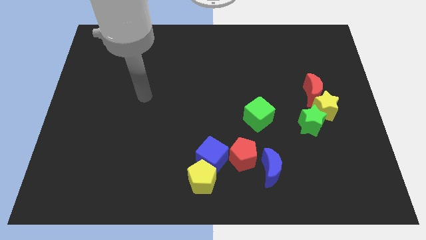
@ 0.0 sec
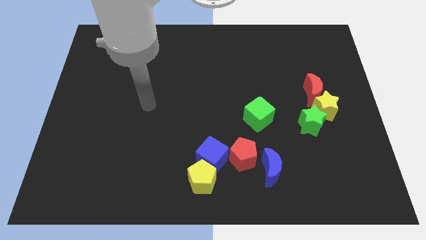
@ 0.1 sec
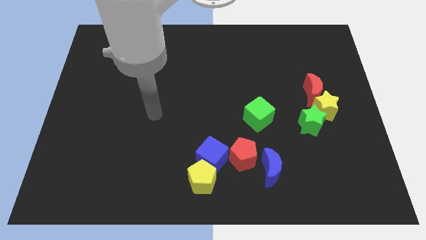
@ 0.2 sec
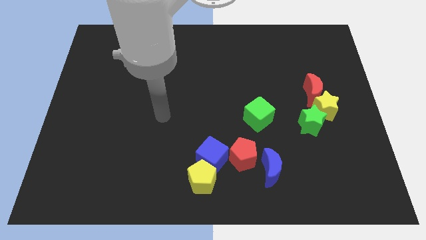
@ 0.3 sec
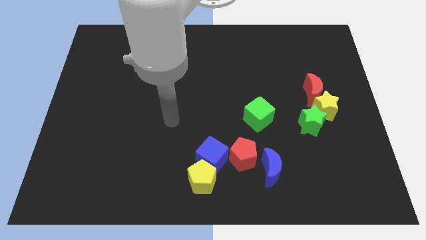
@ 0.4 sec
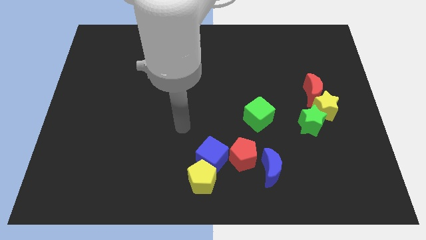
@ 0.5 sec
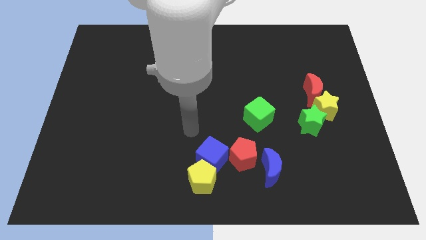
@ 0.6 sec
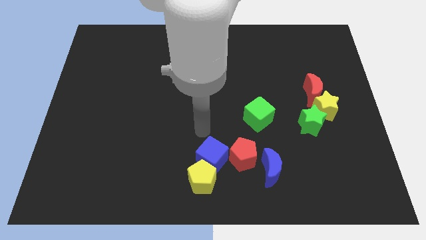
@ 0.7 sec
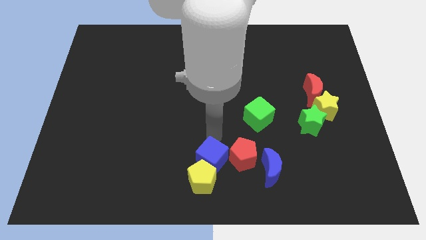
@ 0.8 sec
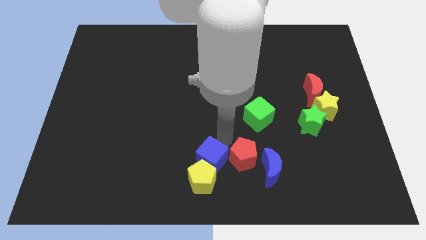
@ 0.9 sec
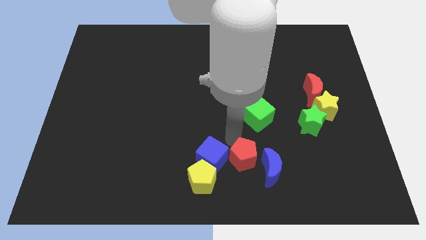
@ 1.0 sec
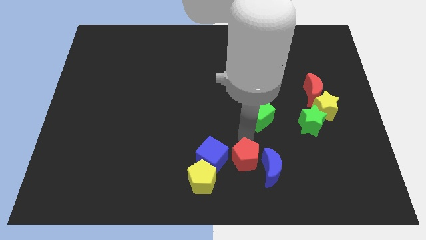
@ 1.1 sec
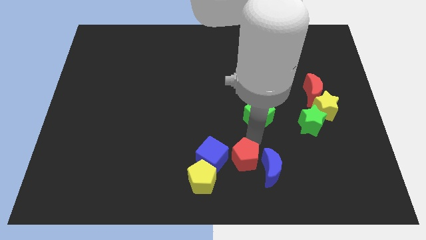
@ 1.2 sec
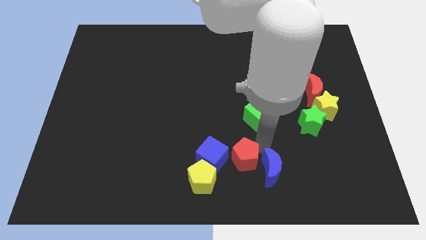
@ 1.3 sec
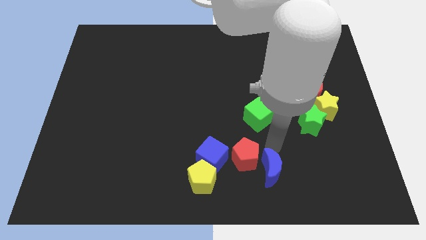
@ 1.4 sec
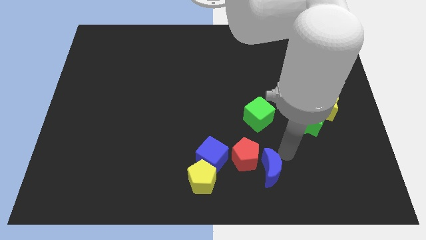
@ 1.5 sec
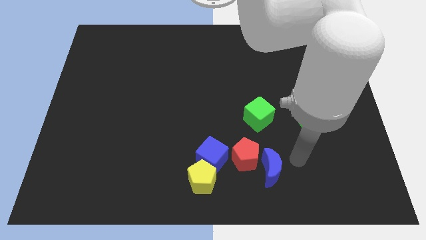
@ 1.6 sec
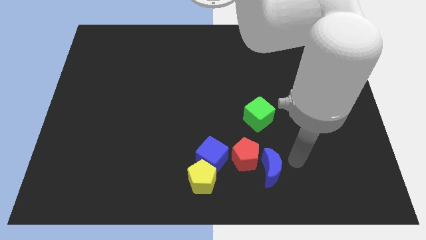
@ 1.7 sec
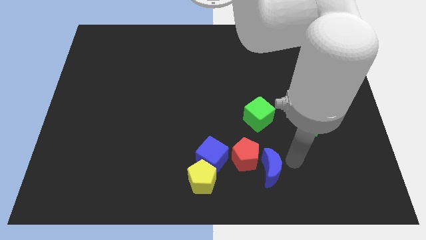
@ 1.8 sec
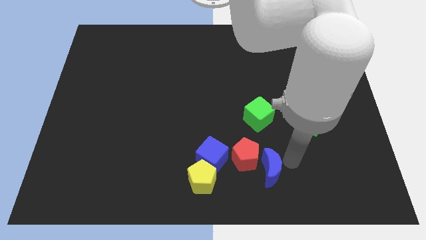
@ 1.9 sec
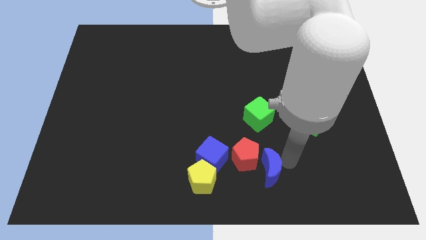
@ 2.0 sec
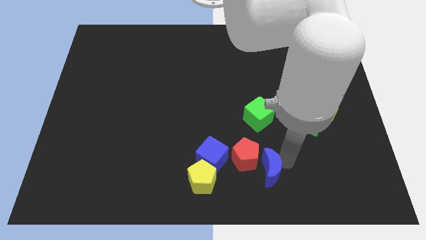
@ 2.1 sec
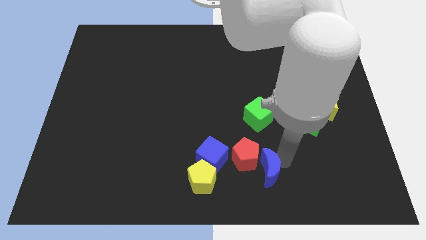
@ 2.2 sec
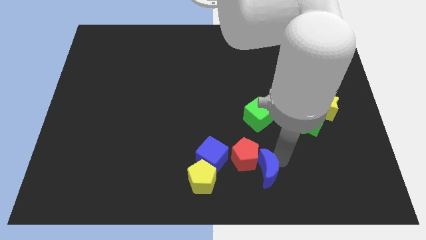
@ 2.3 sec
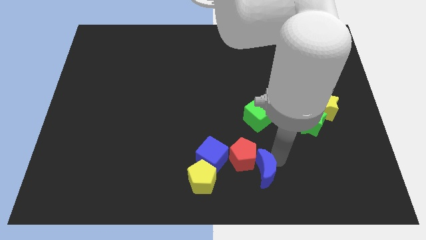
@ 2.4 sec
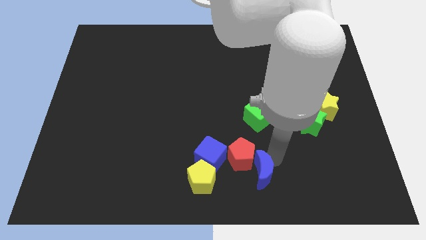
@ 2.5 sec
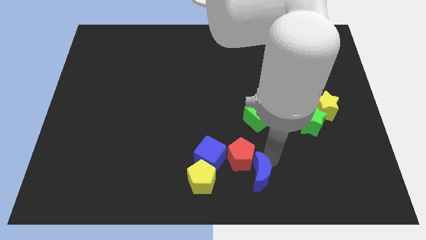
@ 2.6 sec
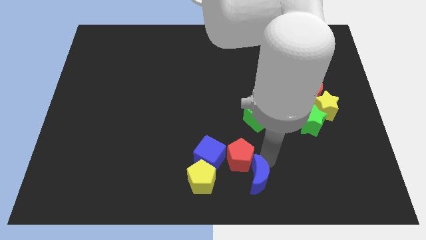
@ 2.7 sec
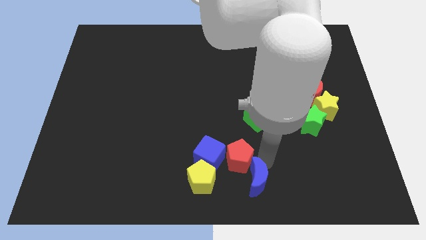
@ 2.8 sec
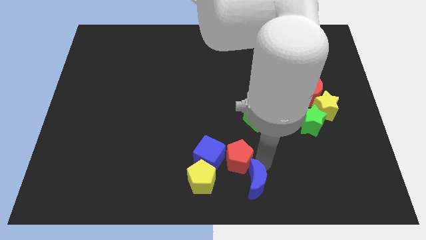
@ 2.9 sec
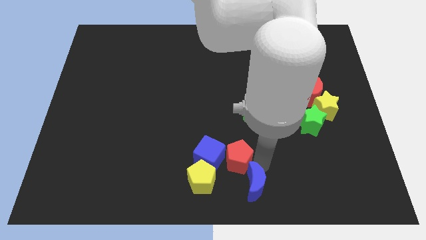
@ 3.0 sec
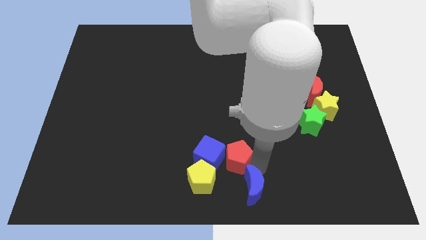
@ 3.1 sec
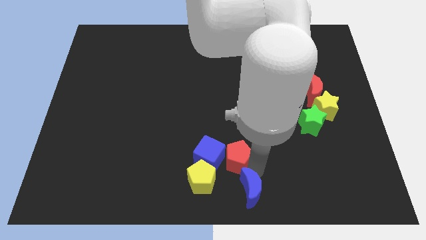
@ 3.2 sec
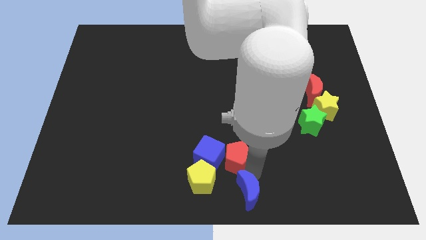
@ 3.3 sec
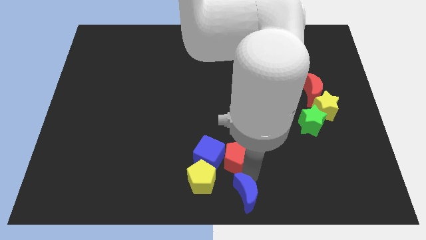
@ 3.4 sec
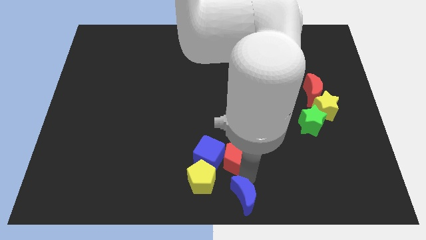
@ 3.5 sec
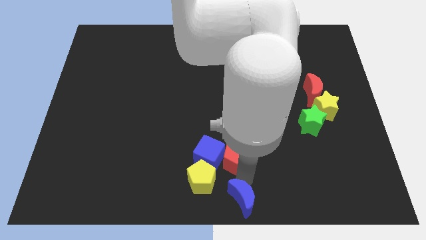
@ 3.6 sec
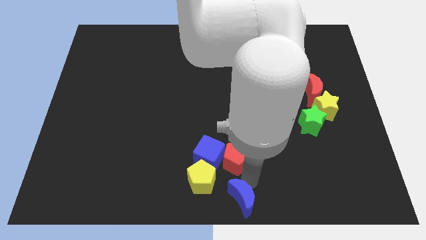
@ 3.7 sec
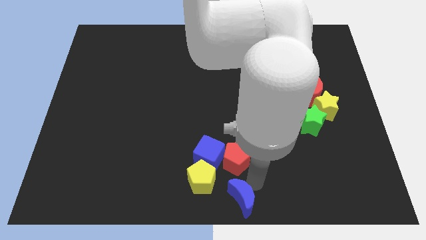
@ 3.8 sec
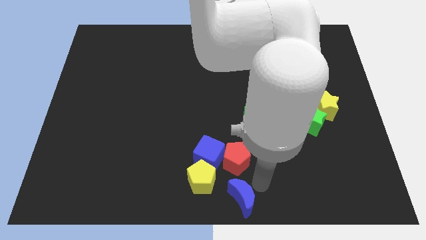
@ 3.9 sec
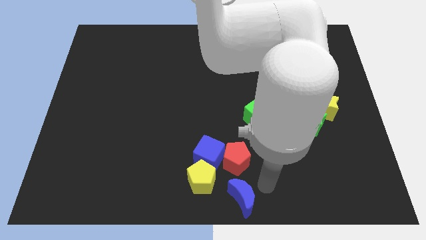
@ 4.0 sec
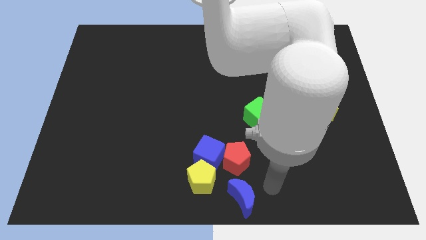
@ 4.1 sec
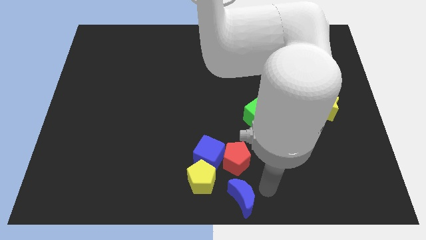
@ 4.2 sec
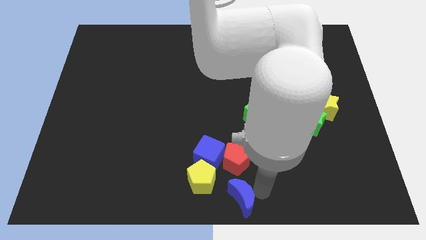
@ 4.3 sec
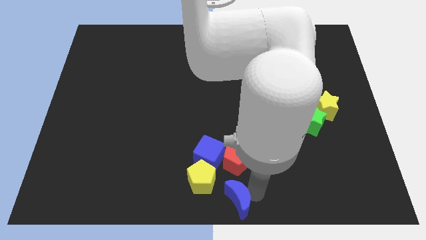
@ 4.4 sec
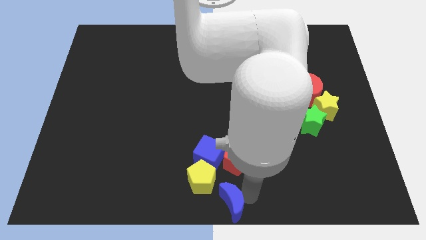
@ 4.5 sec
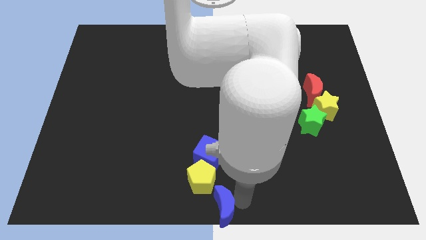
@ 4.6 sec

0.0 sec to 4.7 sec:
push the blue moon slightly to the left

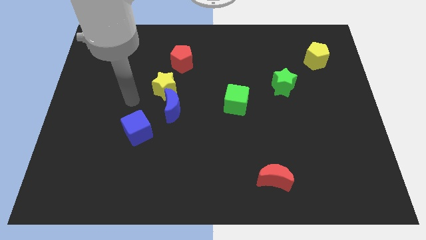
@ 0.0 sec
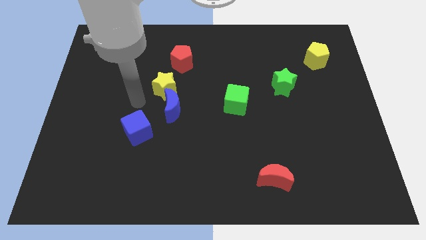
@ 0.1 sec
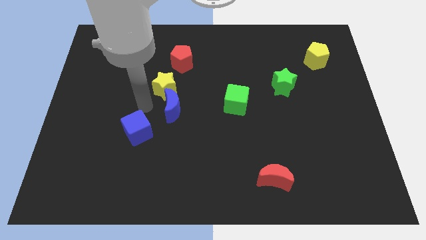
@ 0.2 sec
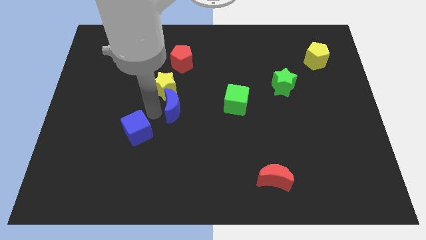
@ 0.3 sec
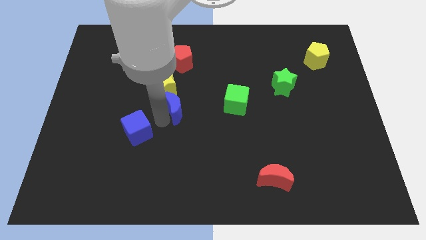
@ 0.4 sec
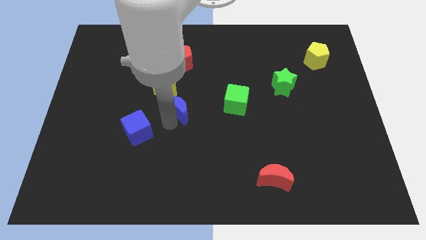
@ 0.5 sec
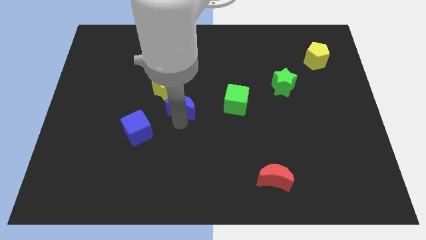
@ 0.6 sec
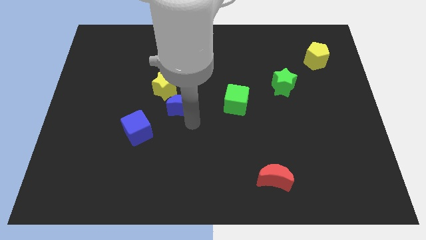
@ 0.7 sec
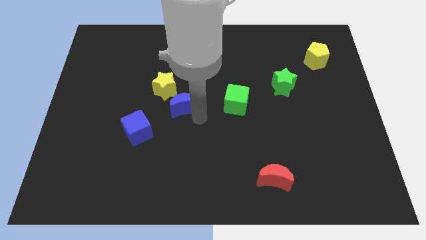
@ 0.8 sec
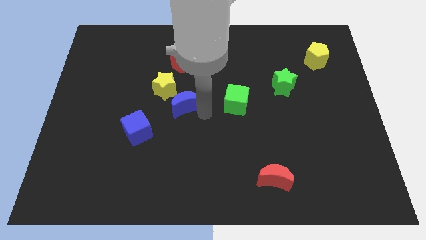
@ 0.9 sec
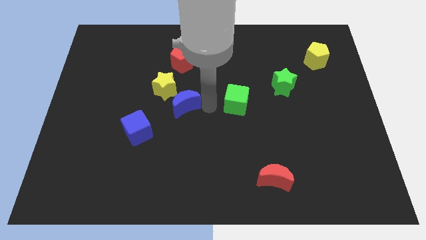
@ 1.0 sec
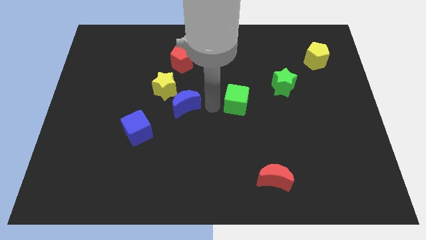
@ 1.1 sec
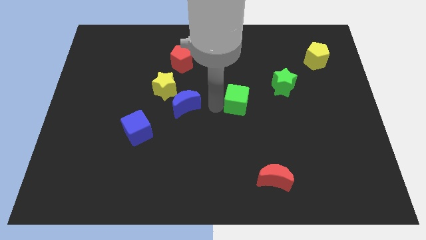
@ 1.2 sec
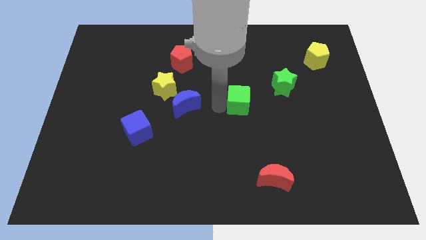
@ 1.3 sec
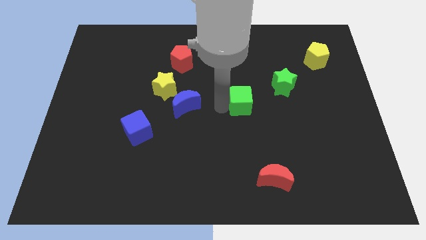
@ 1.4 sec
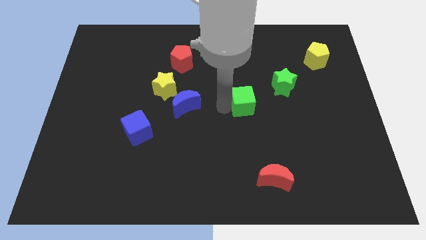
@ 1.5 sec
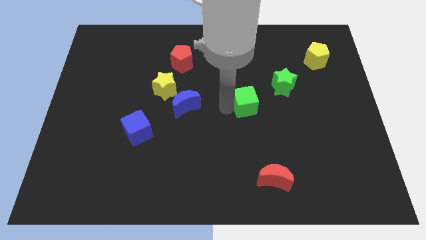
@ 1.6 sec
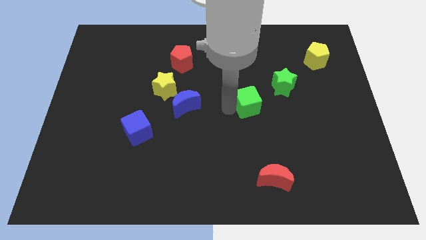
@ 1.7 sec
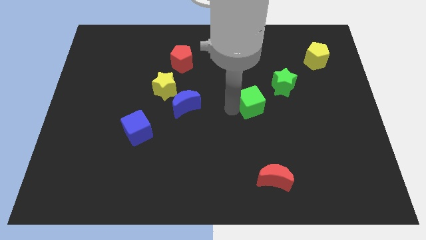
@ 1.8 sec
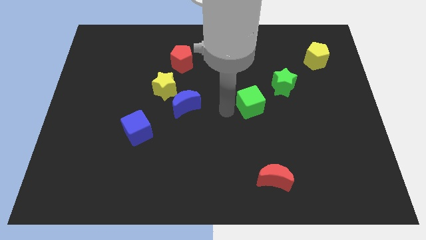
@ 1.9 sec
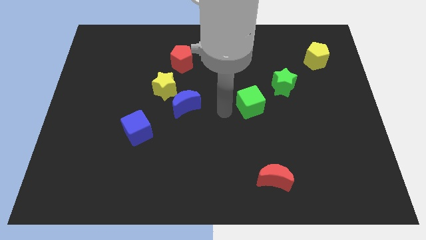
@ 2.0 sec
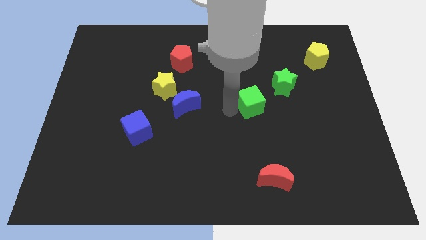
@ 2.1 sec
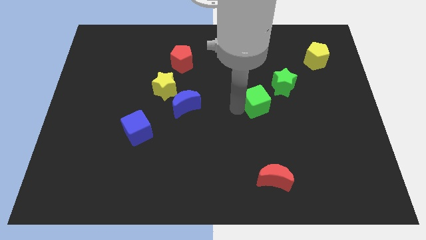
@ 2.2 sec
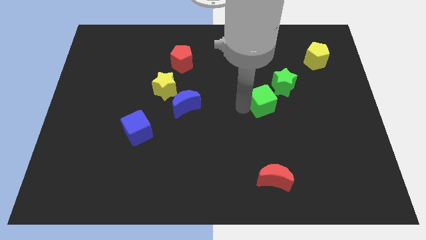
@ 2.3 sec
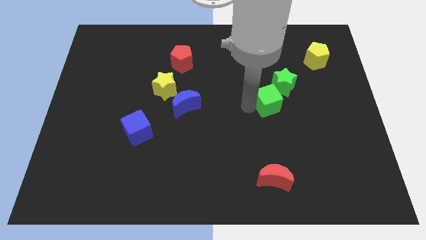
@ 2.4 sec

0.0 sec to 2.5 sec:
slightly slide the green cube right

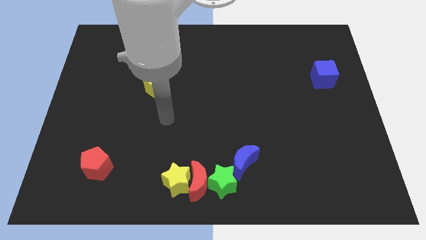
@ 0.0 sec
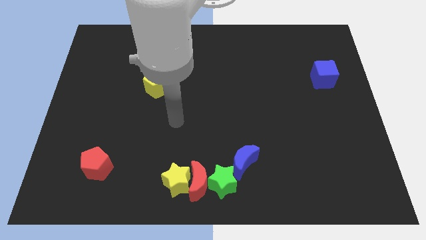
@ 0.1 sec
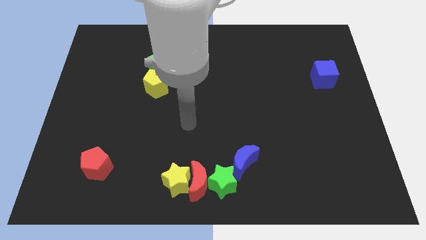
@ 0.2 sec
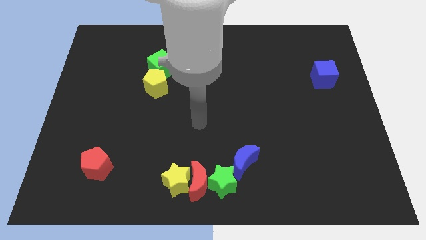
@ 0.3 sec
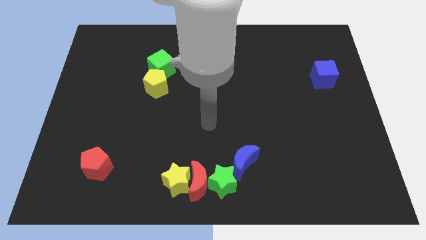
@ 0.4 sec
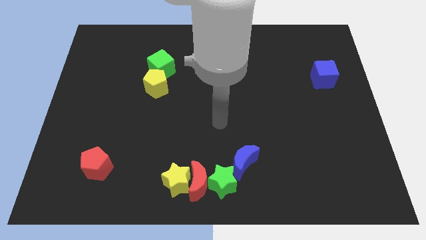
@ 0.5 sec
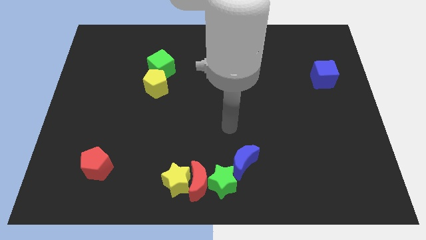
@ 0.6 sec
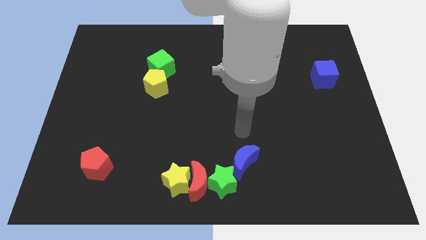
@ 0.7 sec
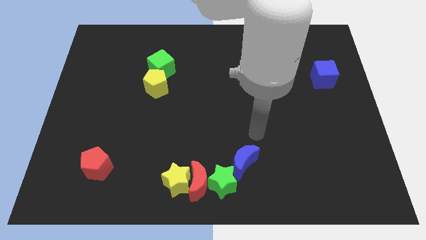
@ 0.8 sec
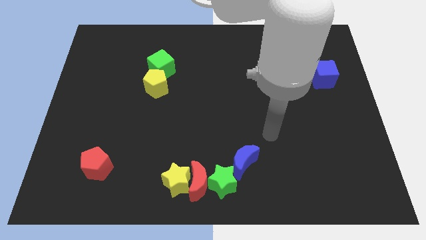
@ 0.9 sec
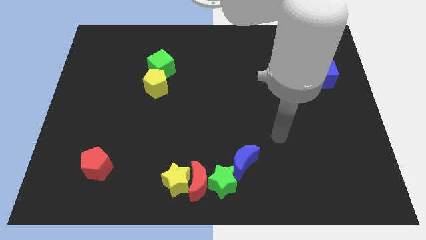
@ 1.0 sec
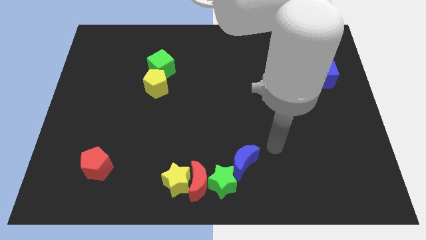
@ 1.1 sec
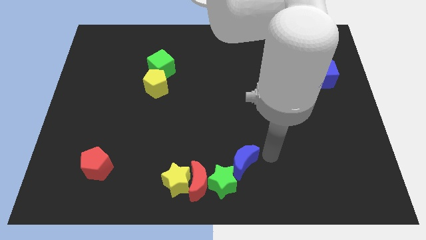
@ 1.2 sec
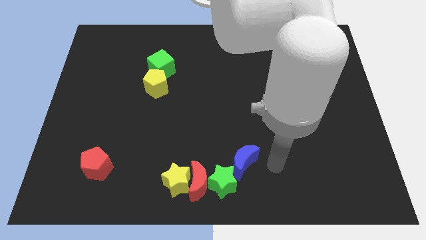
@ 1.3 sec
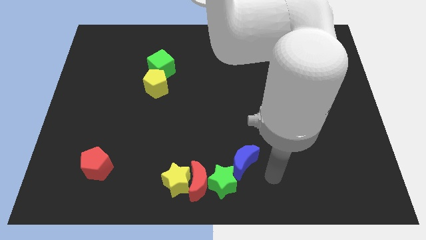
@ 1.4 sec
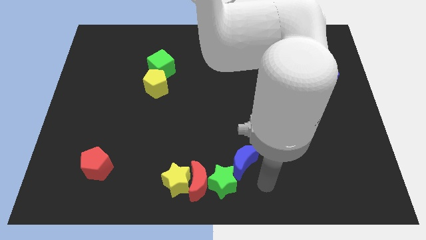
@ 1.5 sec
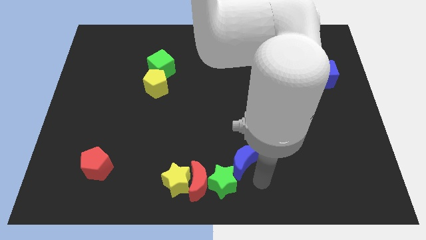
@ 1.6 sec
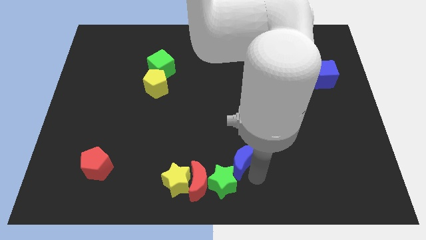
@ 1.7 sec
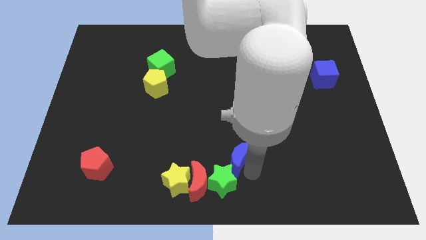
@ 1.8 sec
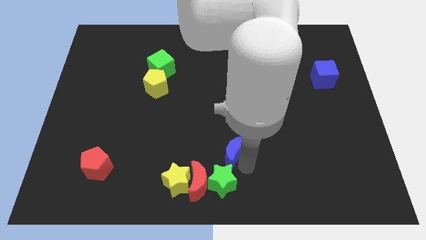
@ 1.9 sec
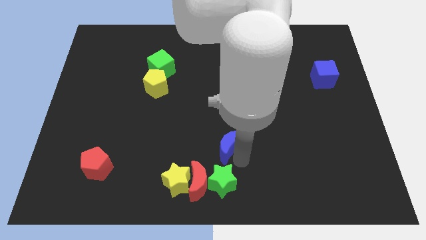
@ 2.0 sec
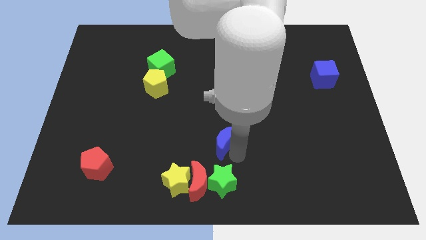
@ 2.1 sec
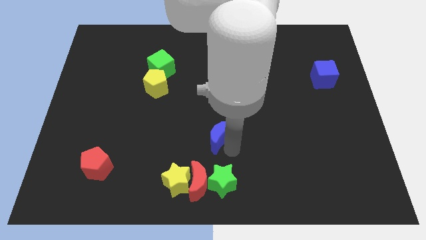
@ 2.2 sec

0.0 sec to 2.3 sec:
slide the blue moon a little upwards and to the left
